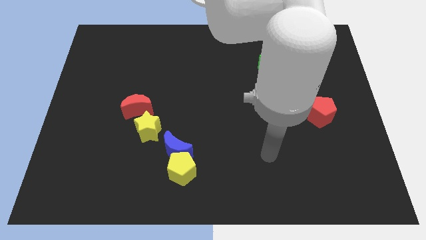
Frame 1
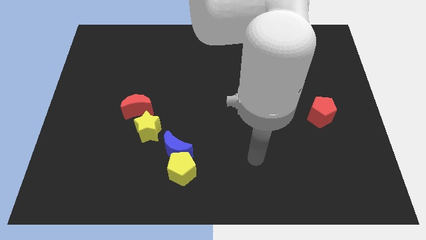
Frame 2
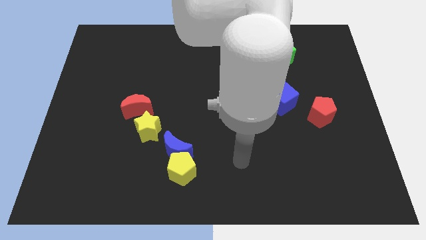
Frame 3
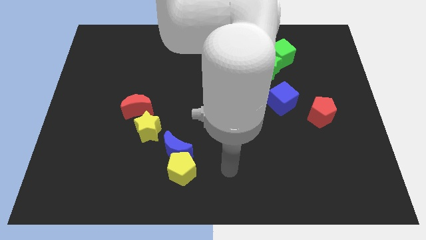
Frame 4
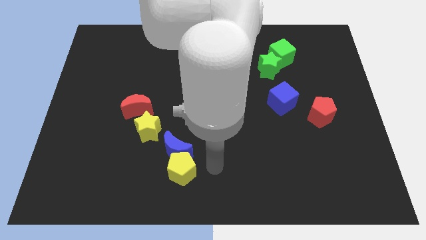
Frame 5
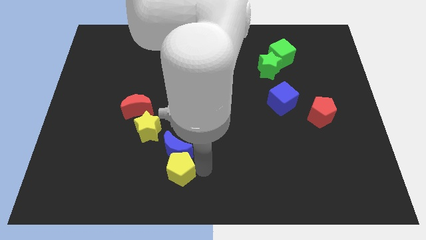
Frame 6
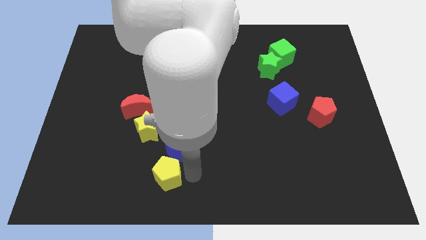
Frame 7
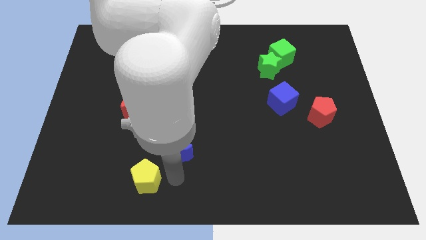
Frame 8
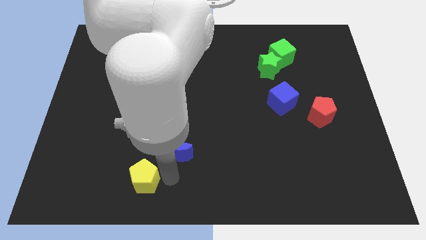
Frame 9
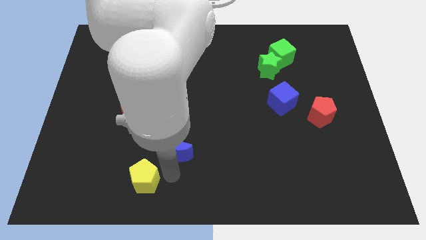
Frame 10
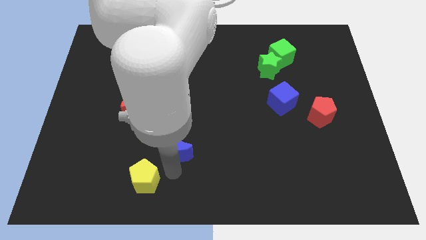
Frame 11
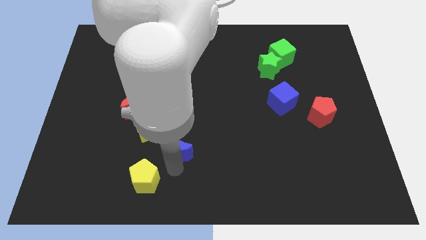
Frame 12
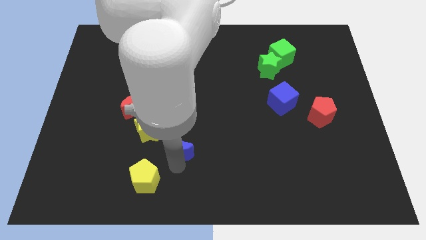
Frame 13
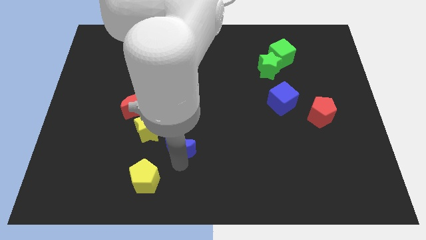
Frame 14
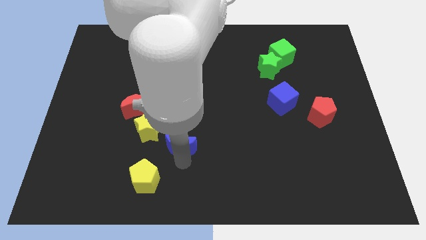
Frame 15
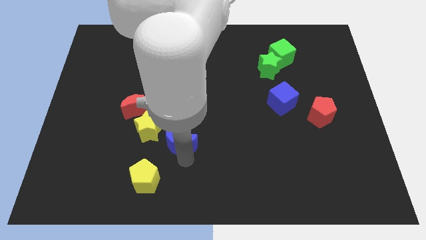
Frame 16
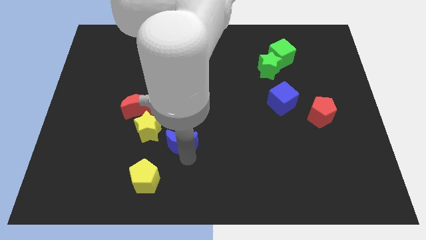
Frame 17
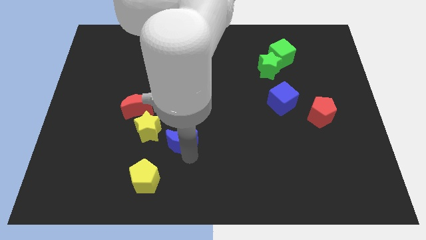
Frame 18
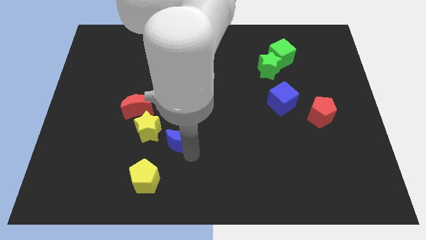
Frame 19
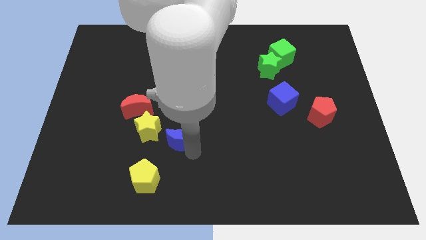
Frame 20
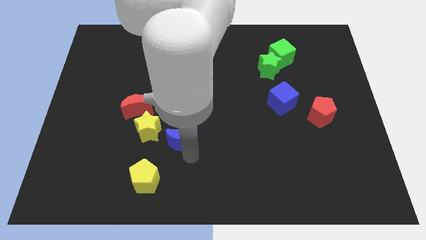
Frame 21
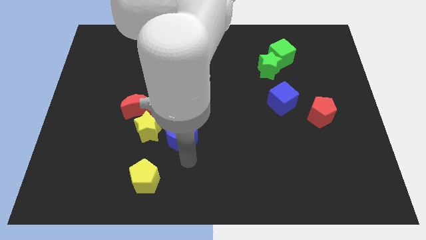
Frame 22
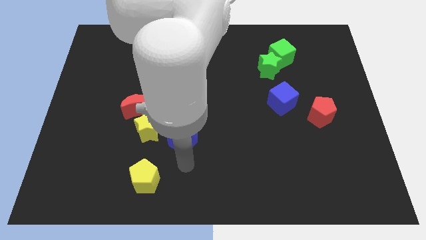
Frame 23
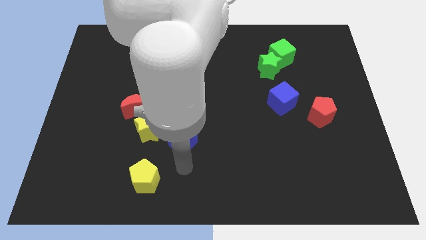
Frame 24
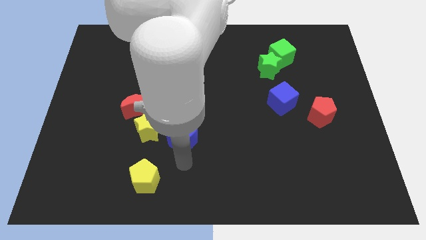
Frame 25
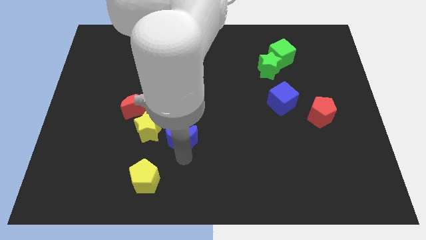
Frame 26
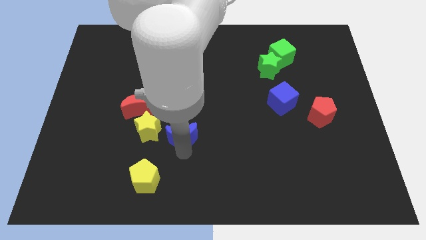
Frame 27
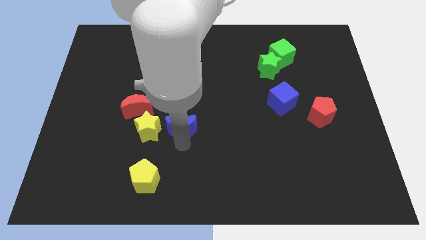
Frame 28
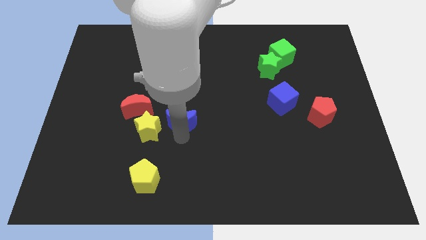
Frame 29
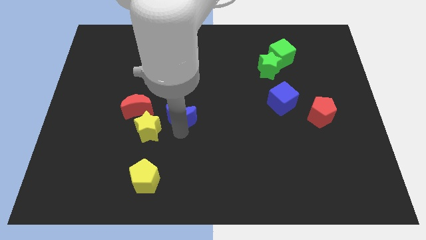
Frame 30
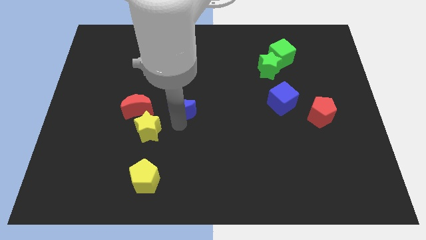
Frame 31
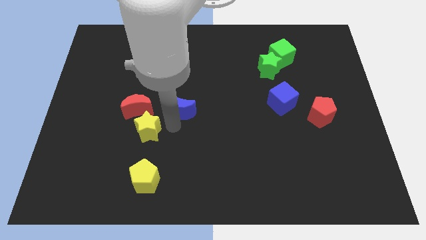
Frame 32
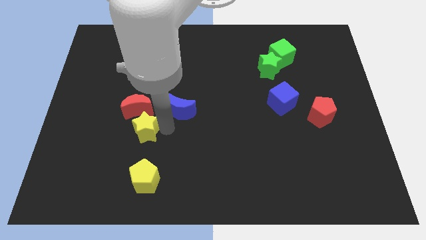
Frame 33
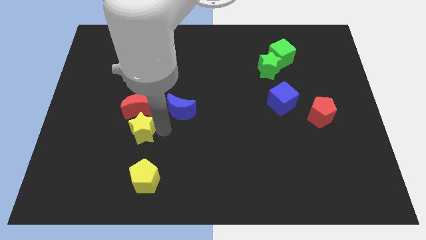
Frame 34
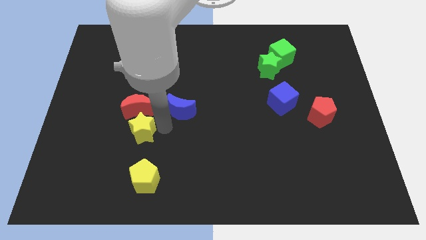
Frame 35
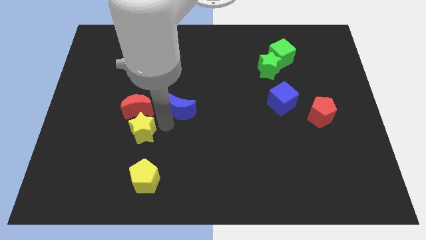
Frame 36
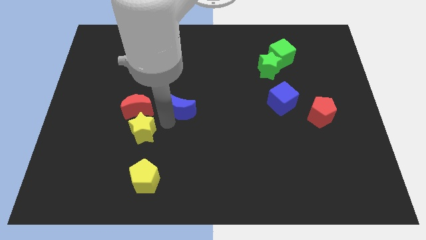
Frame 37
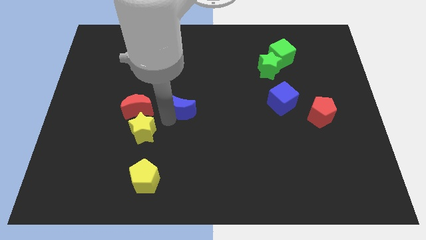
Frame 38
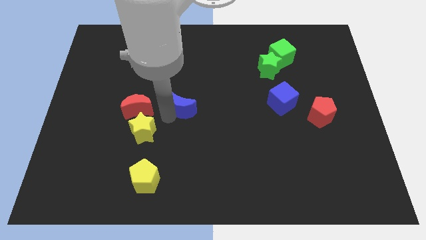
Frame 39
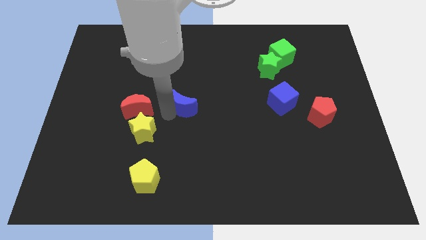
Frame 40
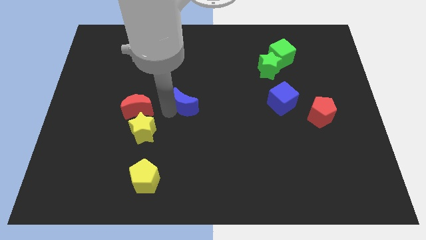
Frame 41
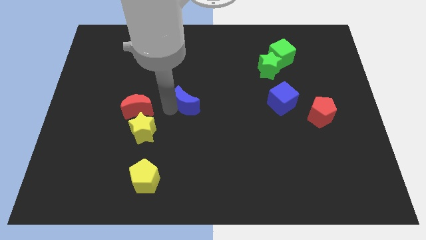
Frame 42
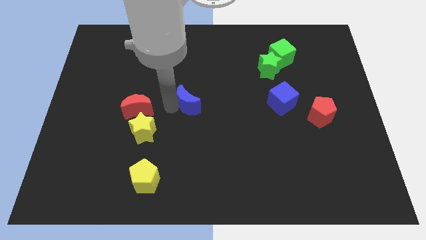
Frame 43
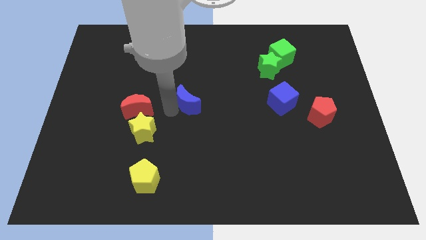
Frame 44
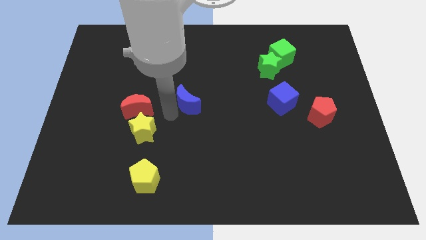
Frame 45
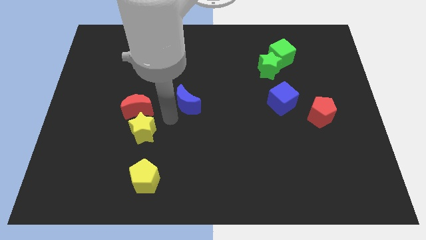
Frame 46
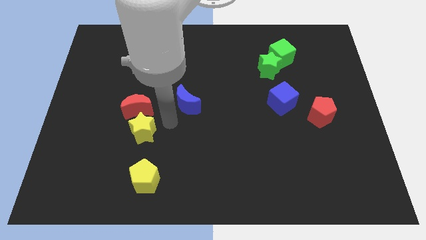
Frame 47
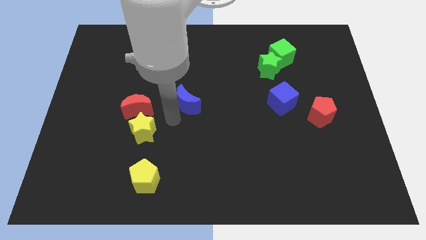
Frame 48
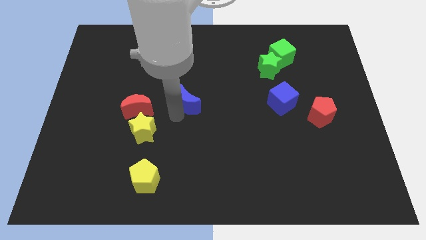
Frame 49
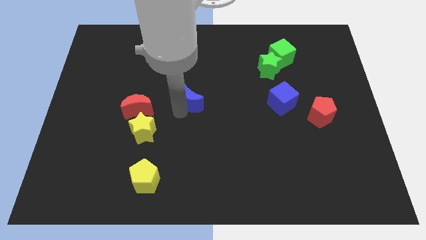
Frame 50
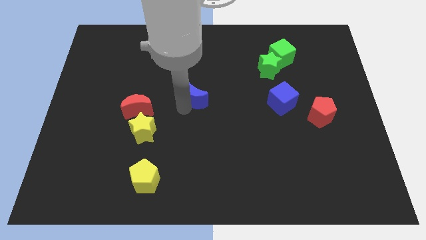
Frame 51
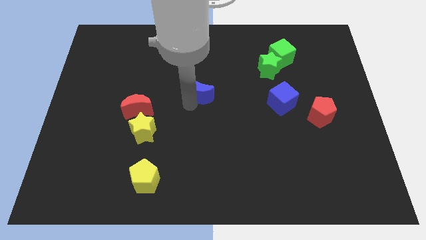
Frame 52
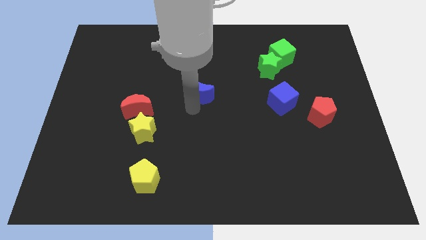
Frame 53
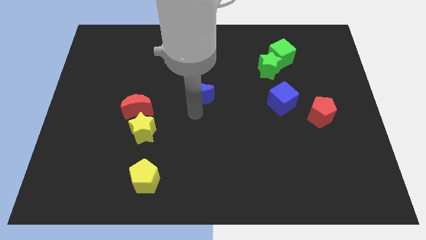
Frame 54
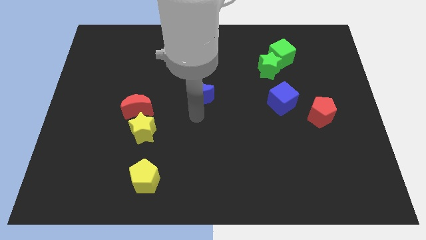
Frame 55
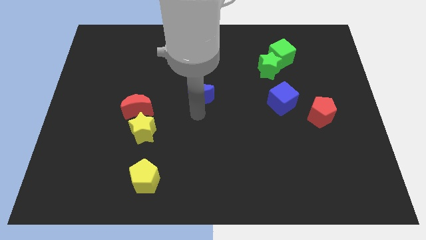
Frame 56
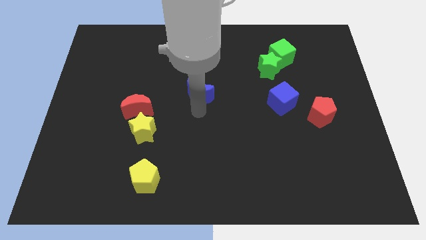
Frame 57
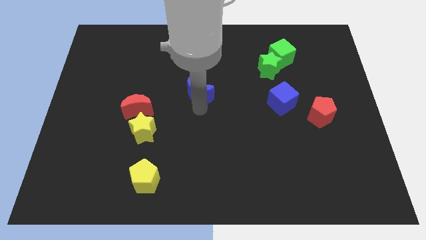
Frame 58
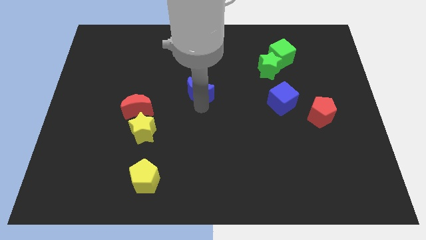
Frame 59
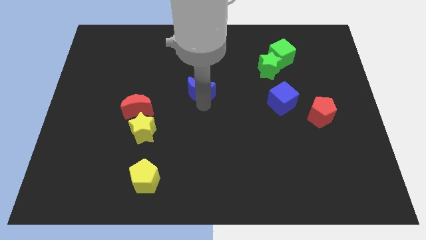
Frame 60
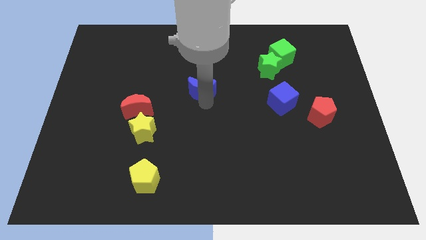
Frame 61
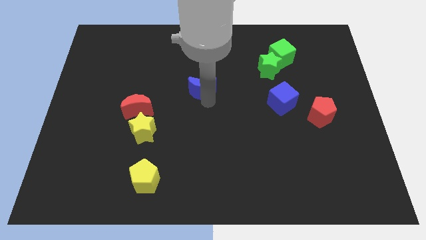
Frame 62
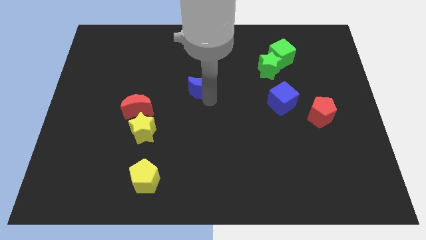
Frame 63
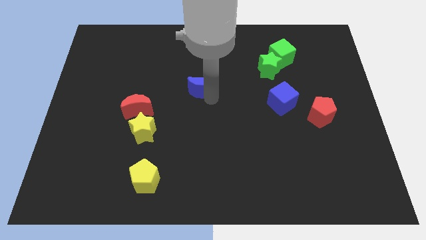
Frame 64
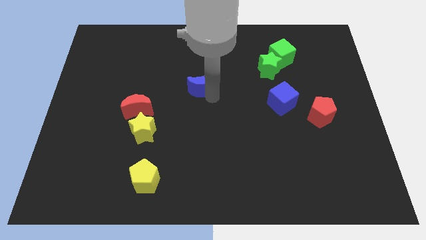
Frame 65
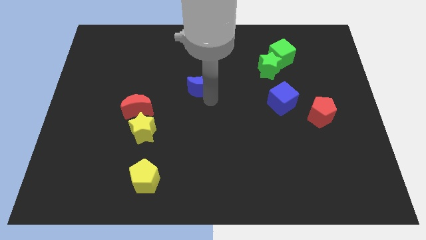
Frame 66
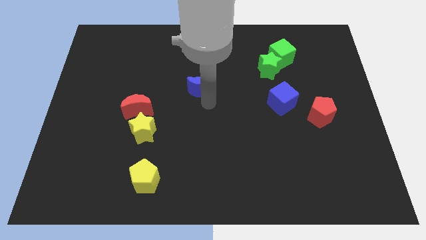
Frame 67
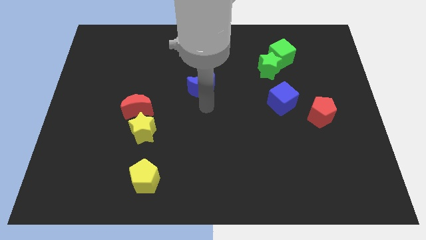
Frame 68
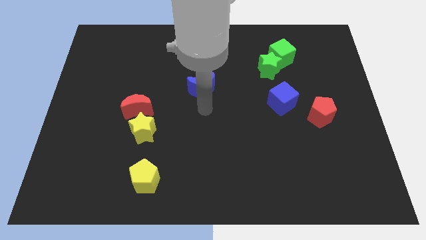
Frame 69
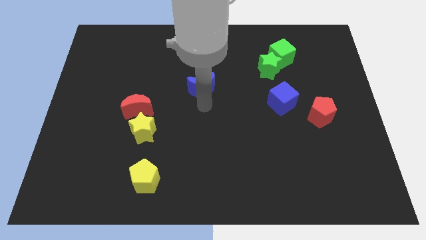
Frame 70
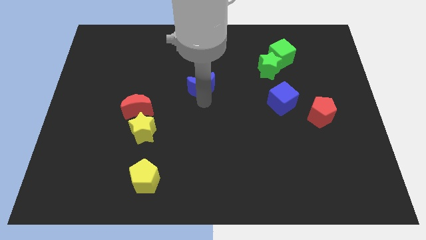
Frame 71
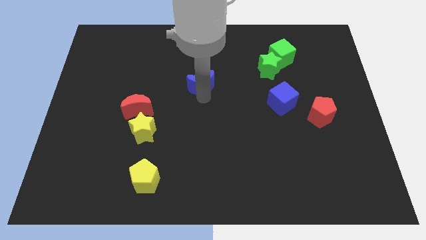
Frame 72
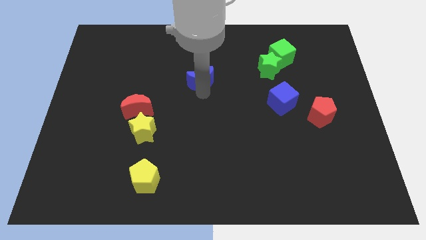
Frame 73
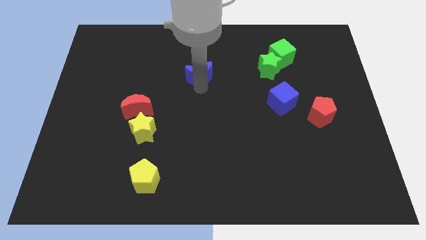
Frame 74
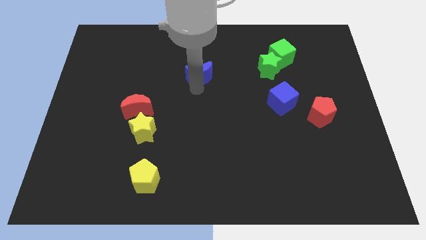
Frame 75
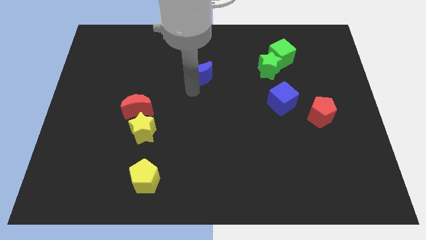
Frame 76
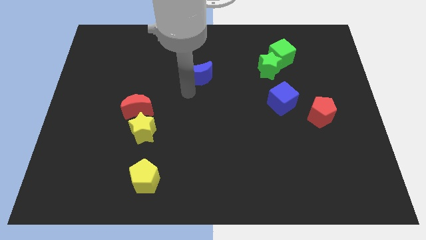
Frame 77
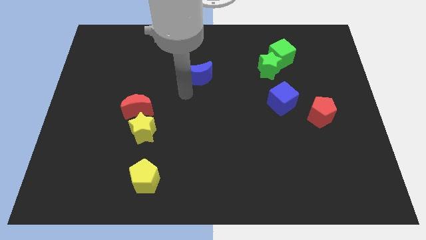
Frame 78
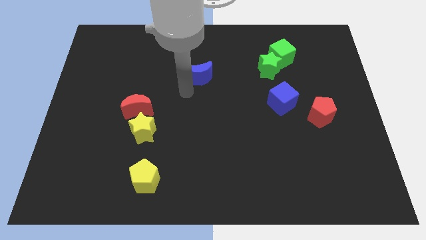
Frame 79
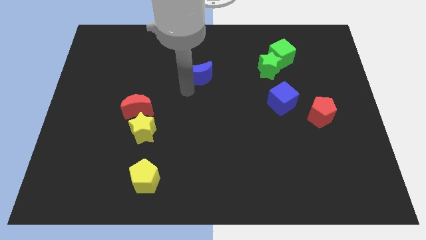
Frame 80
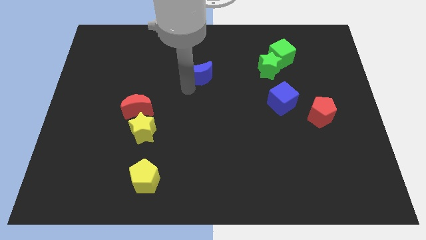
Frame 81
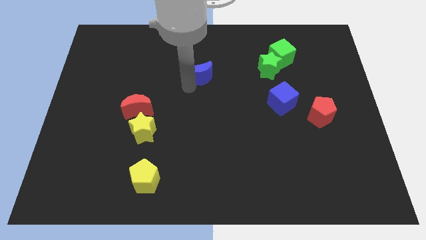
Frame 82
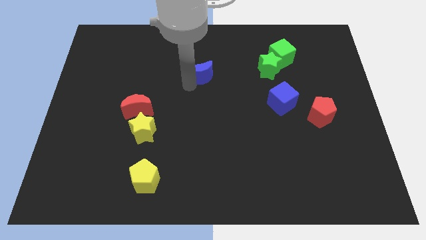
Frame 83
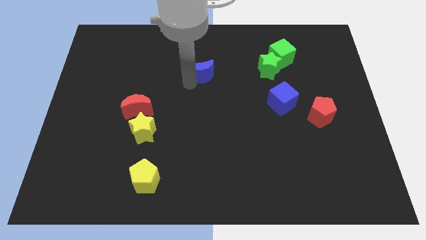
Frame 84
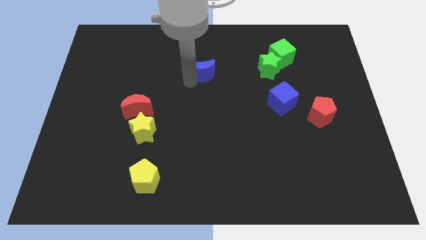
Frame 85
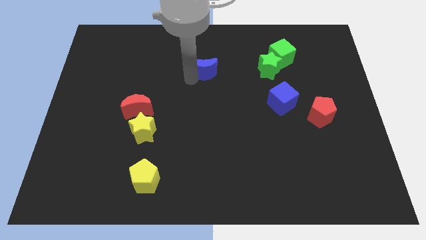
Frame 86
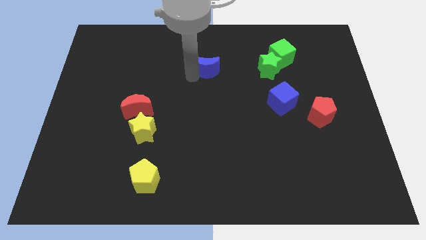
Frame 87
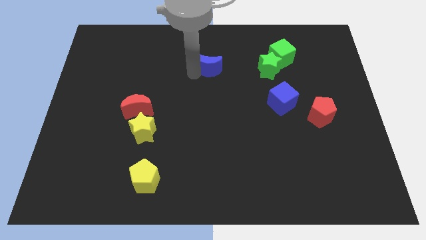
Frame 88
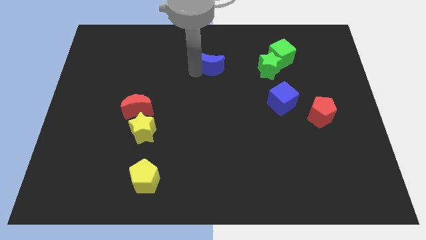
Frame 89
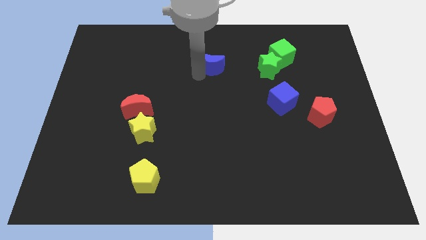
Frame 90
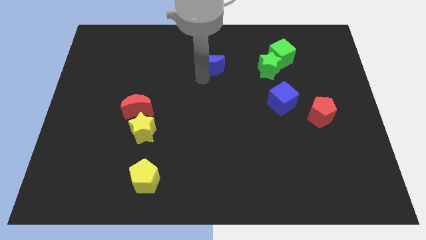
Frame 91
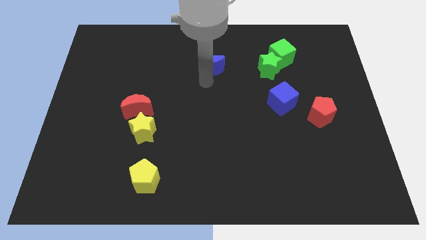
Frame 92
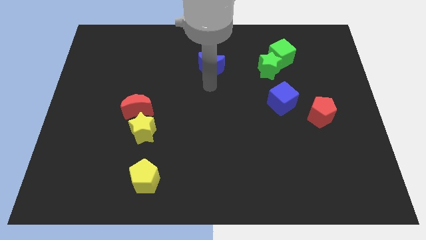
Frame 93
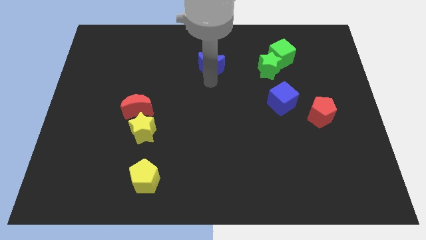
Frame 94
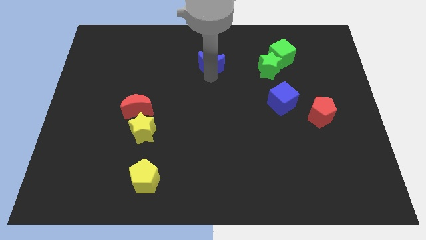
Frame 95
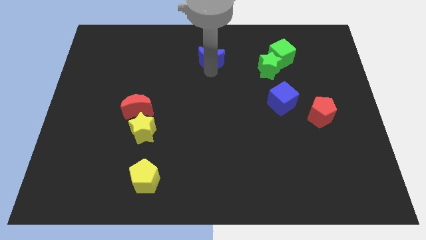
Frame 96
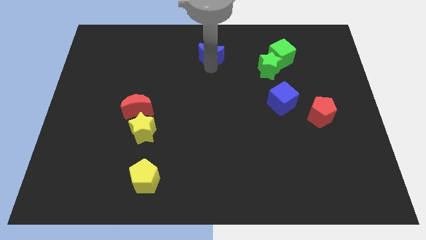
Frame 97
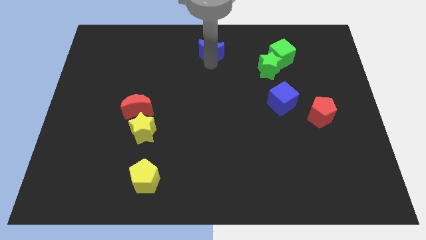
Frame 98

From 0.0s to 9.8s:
slide the blue moon to the top side
